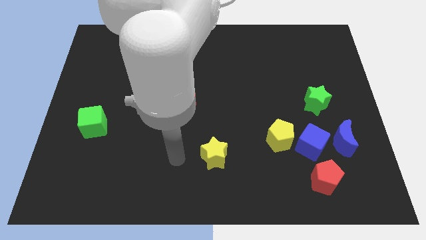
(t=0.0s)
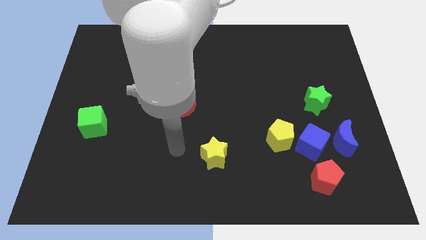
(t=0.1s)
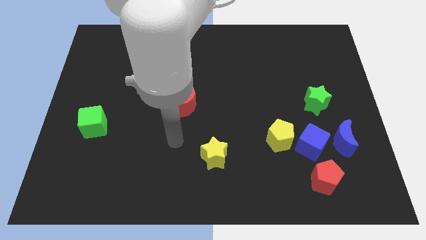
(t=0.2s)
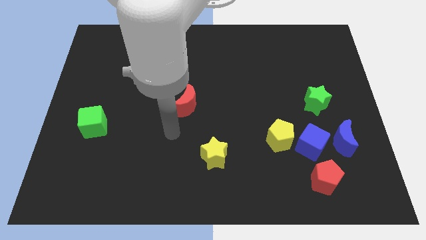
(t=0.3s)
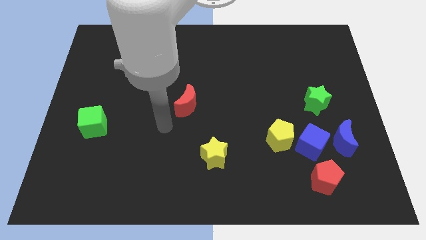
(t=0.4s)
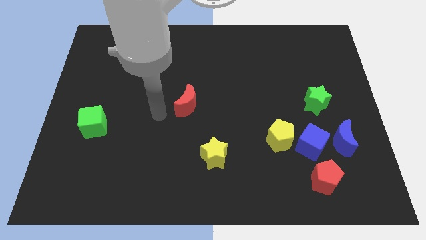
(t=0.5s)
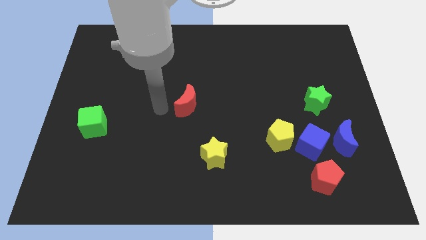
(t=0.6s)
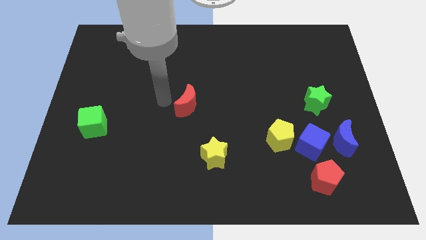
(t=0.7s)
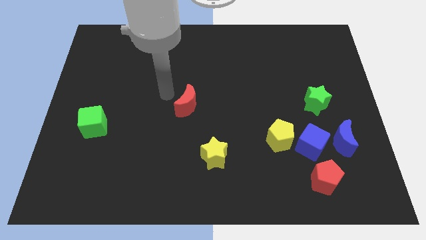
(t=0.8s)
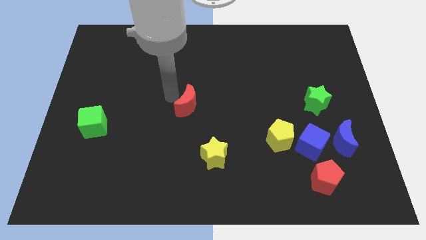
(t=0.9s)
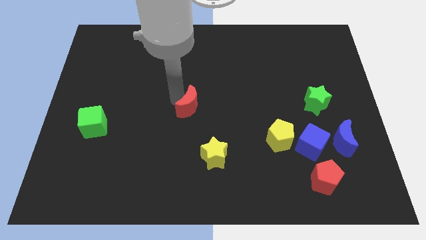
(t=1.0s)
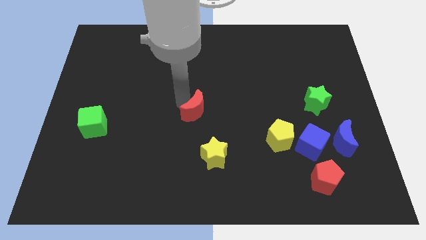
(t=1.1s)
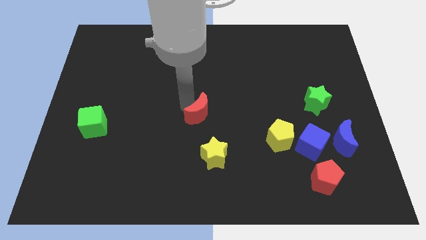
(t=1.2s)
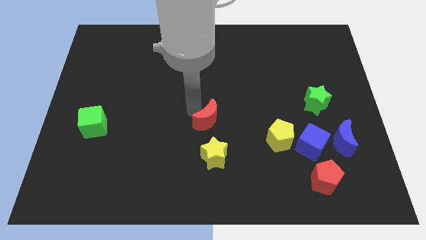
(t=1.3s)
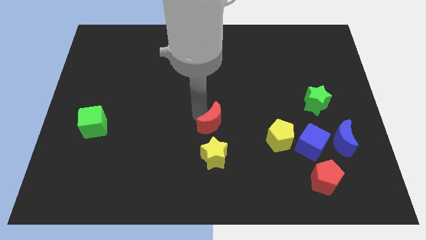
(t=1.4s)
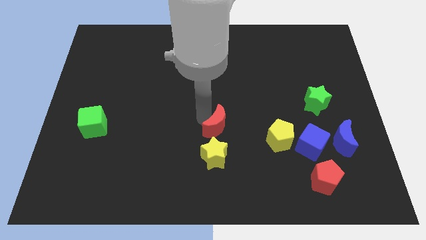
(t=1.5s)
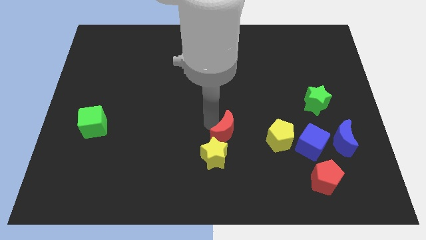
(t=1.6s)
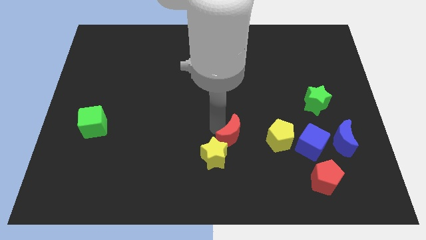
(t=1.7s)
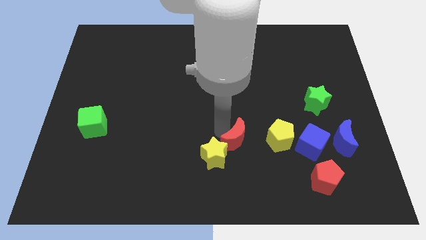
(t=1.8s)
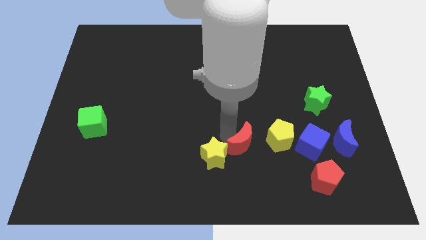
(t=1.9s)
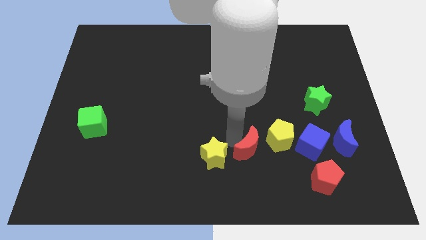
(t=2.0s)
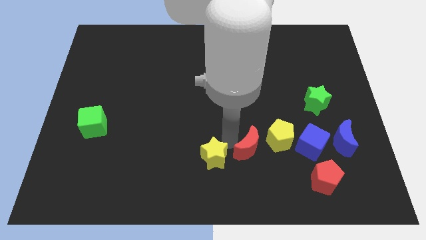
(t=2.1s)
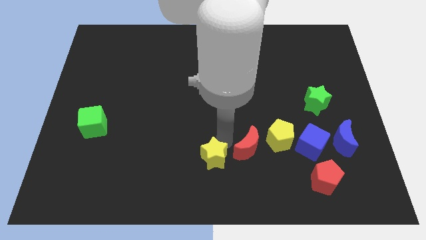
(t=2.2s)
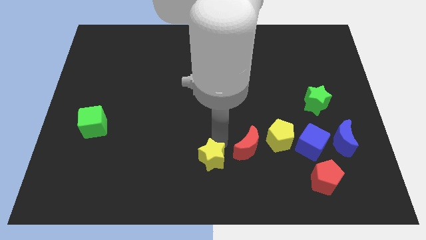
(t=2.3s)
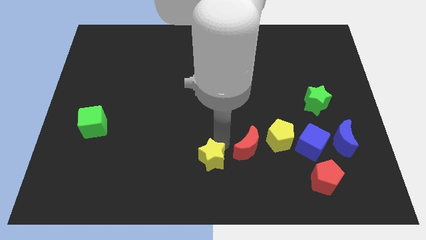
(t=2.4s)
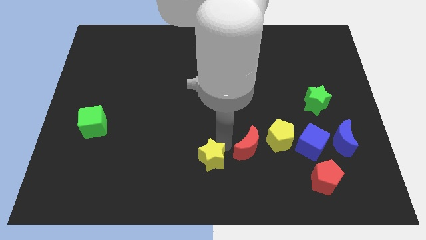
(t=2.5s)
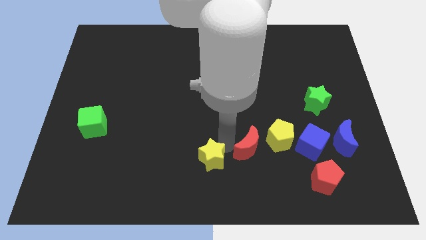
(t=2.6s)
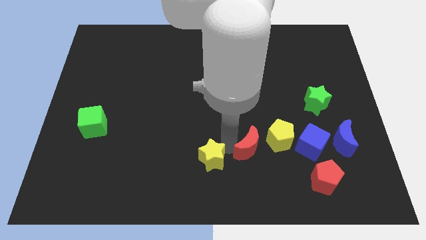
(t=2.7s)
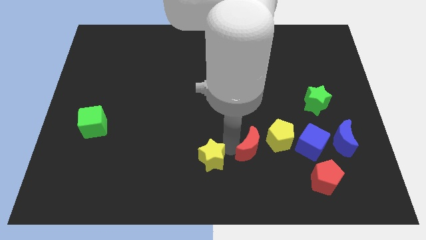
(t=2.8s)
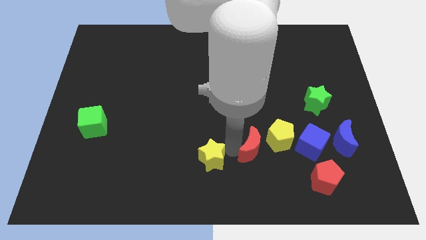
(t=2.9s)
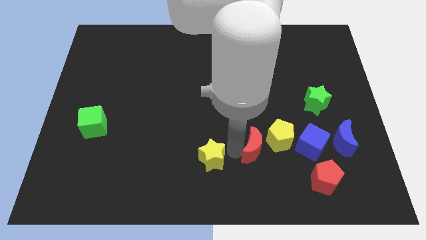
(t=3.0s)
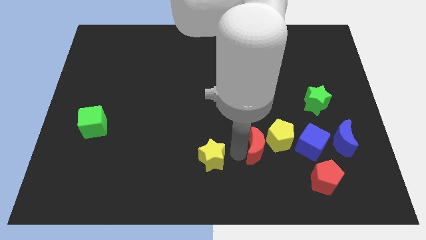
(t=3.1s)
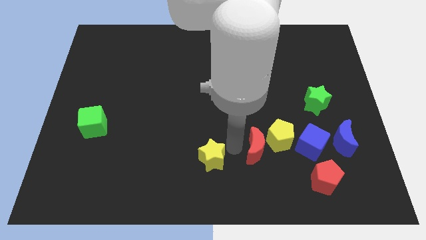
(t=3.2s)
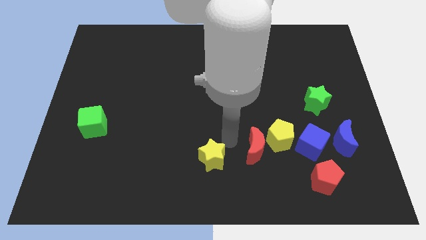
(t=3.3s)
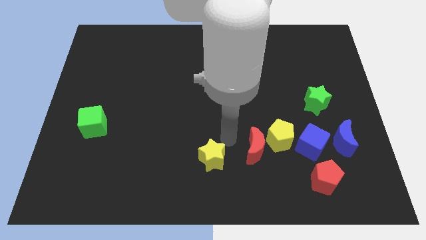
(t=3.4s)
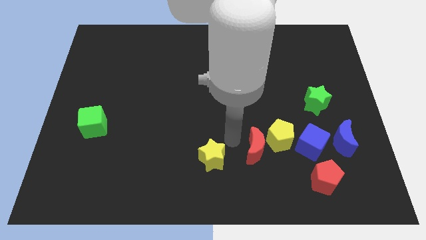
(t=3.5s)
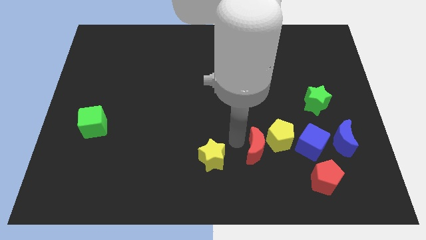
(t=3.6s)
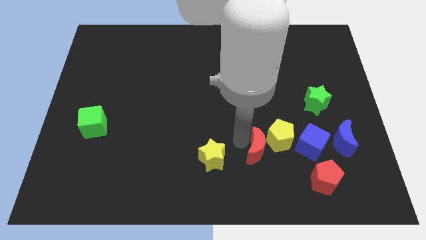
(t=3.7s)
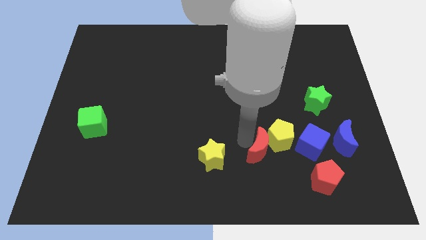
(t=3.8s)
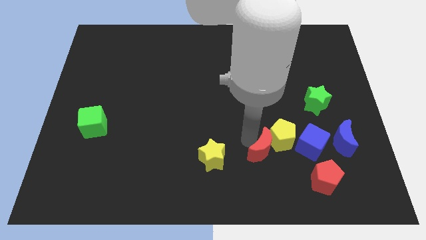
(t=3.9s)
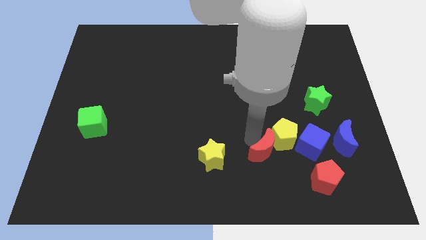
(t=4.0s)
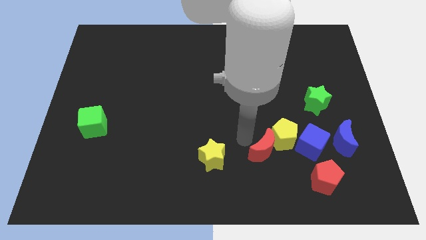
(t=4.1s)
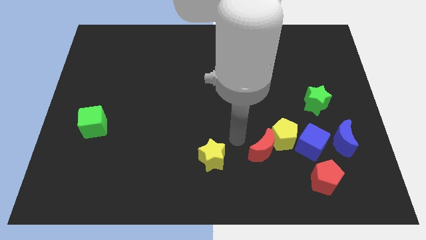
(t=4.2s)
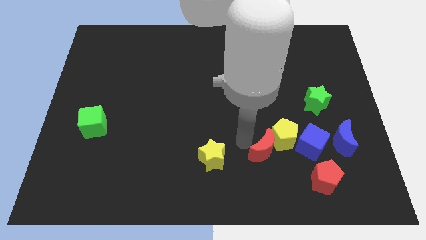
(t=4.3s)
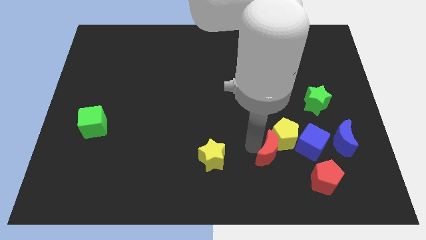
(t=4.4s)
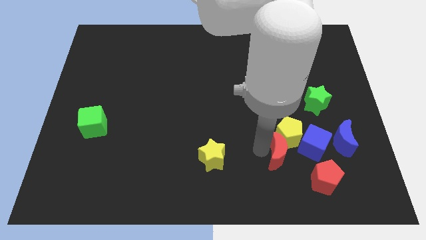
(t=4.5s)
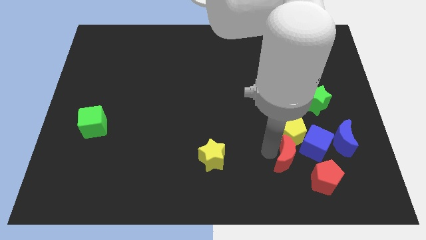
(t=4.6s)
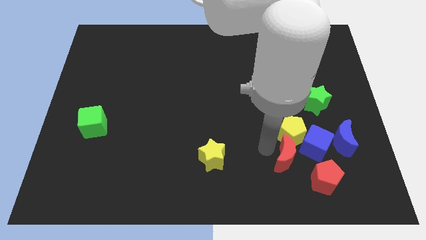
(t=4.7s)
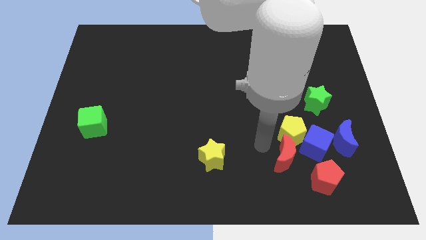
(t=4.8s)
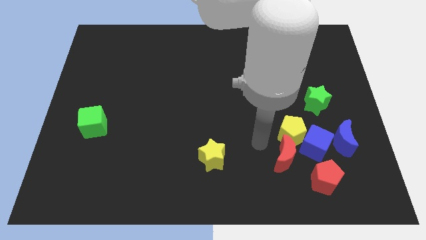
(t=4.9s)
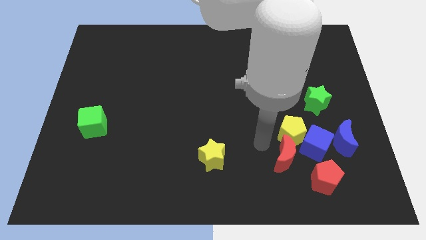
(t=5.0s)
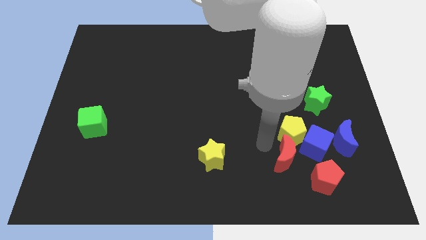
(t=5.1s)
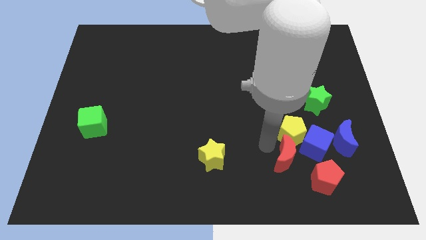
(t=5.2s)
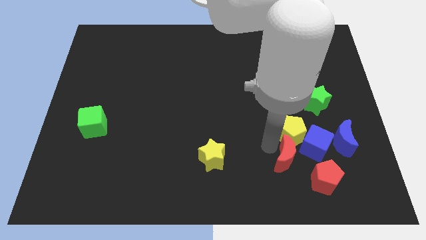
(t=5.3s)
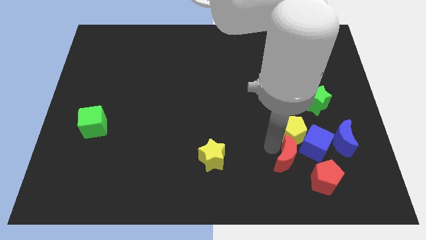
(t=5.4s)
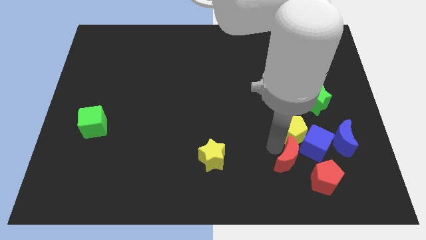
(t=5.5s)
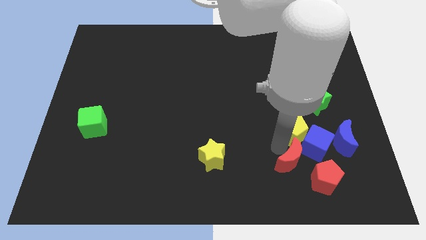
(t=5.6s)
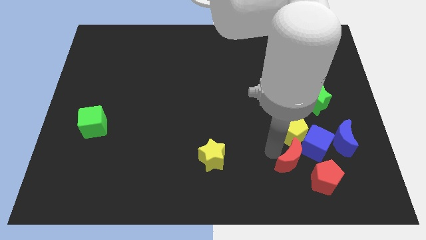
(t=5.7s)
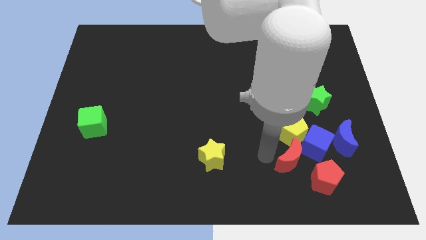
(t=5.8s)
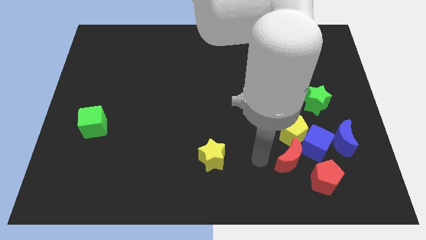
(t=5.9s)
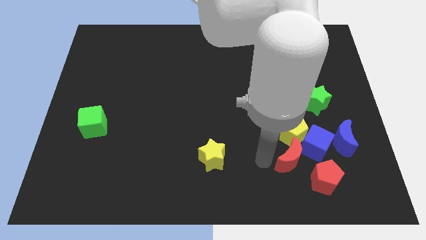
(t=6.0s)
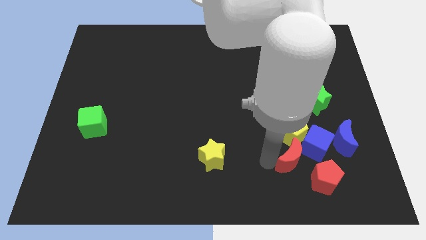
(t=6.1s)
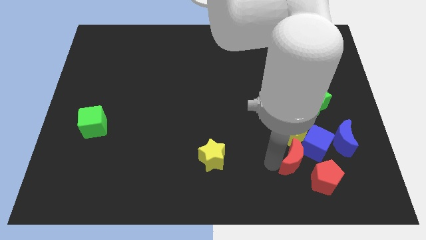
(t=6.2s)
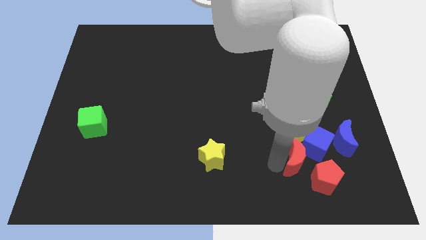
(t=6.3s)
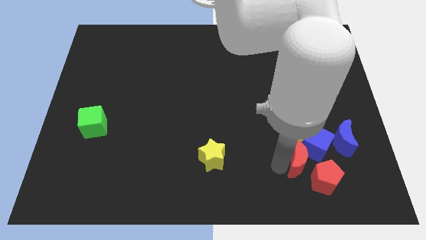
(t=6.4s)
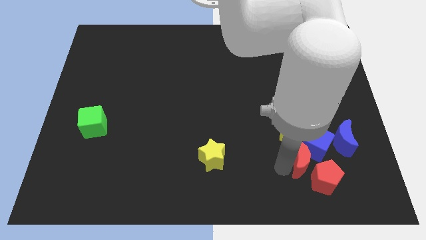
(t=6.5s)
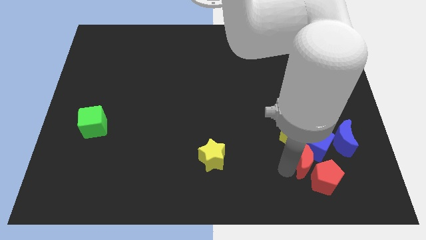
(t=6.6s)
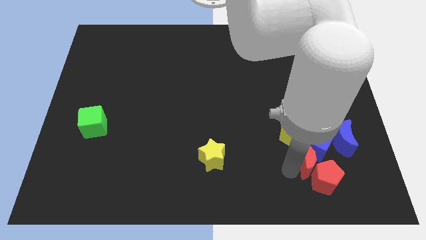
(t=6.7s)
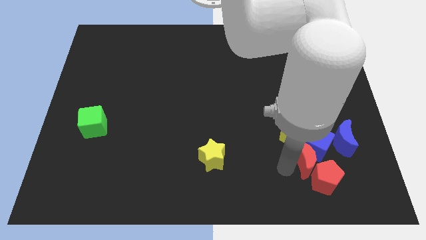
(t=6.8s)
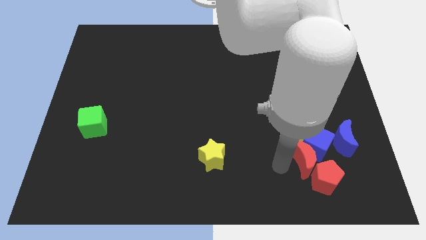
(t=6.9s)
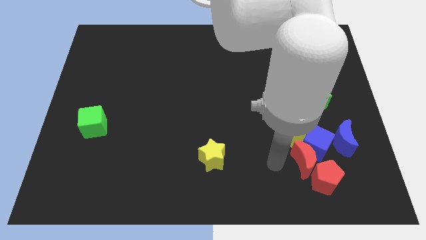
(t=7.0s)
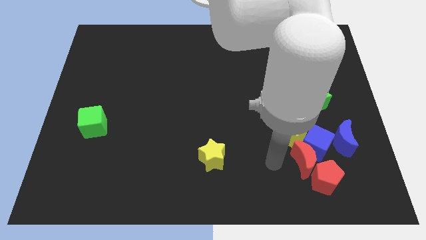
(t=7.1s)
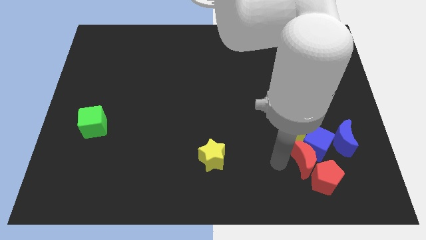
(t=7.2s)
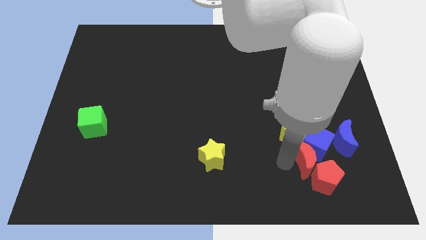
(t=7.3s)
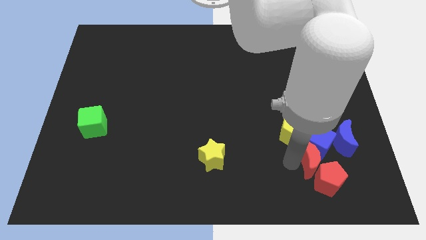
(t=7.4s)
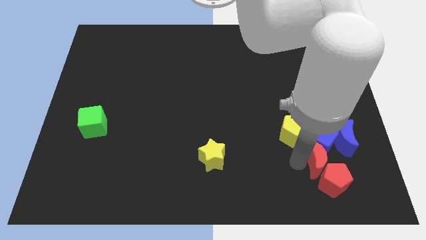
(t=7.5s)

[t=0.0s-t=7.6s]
put the red moon to the bottom of the green star
